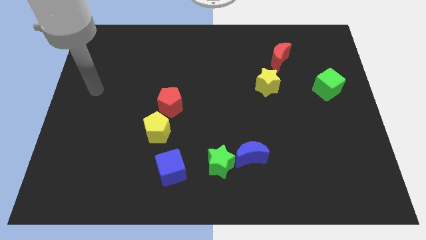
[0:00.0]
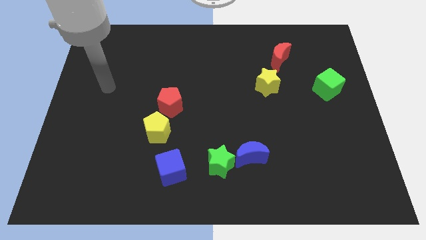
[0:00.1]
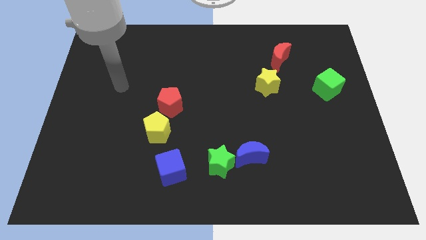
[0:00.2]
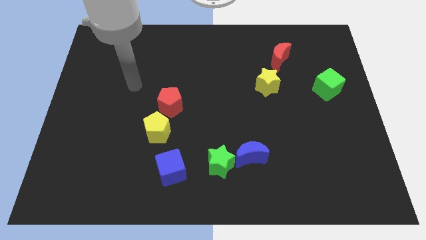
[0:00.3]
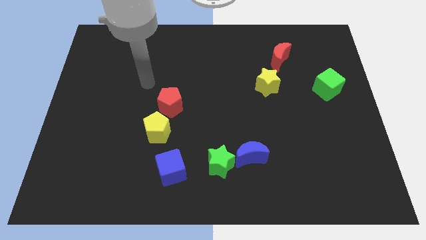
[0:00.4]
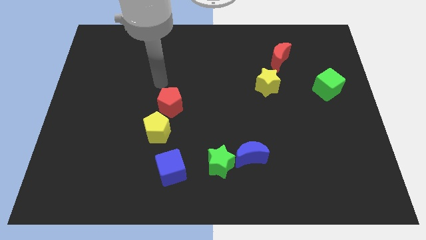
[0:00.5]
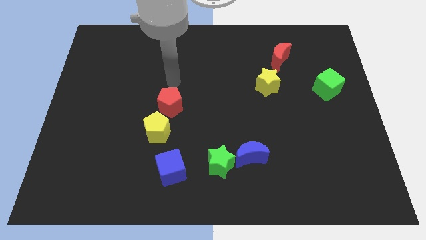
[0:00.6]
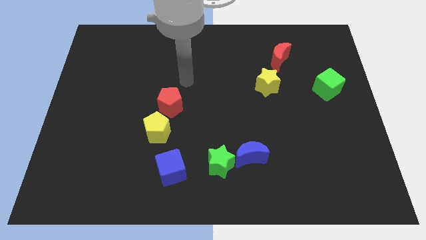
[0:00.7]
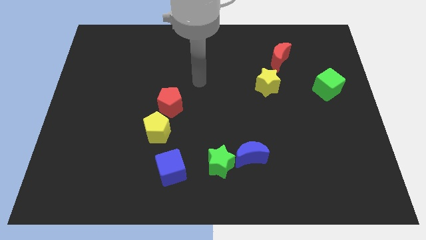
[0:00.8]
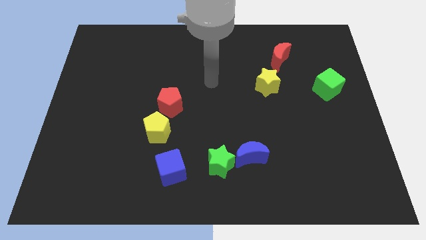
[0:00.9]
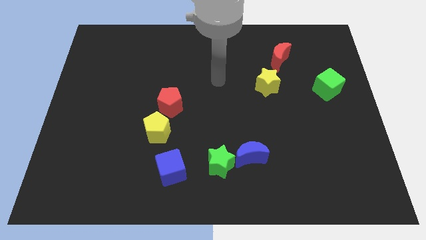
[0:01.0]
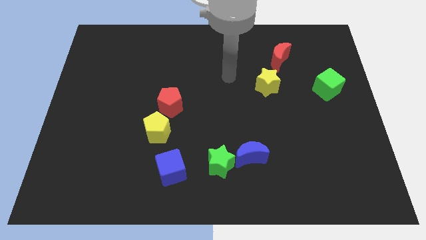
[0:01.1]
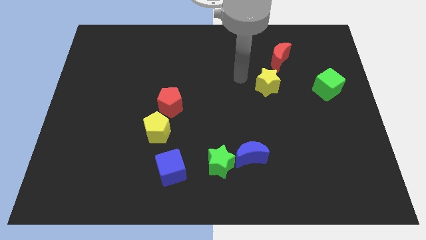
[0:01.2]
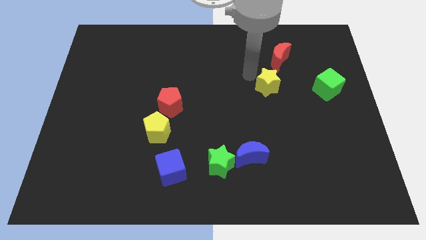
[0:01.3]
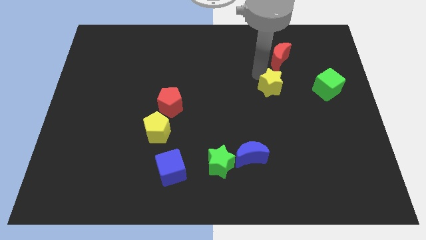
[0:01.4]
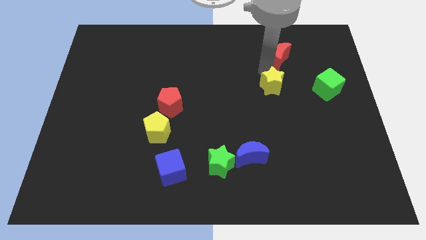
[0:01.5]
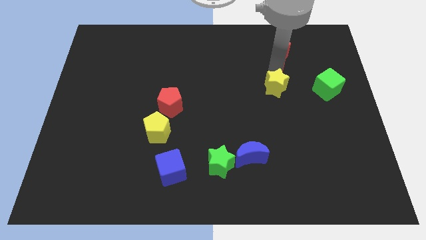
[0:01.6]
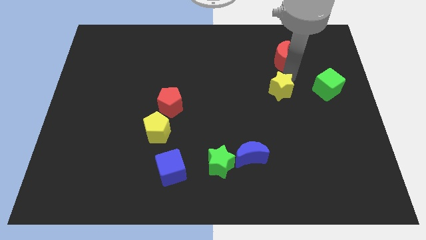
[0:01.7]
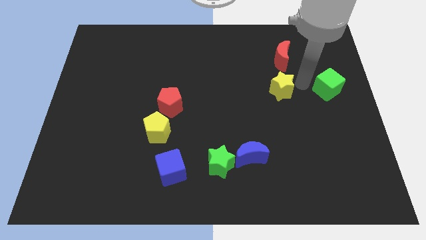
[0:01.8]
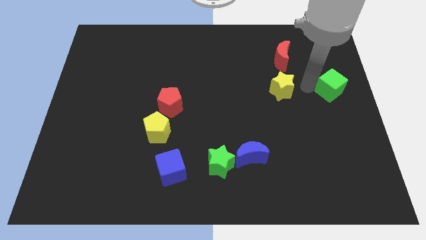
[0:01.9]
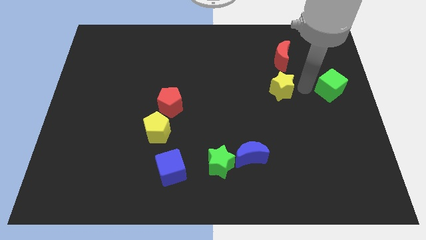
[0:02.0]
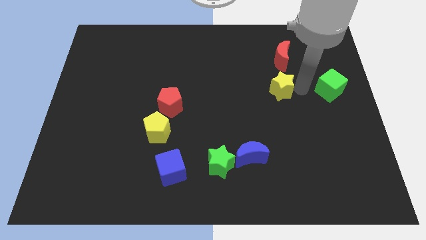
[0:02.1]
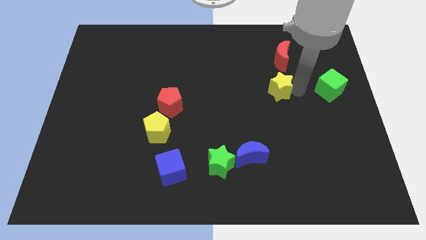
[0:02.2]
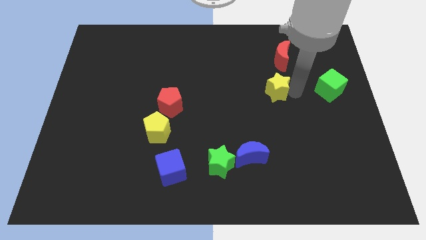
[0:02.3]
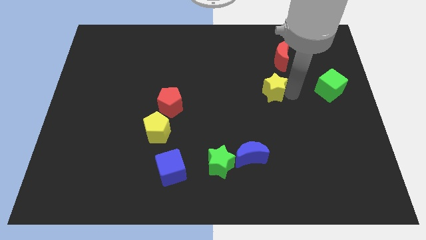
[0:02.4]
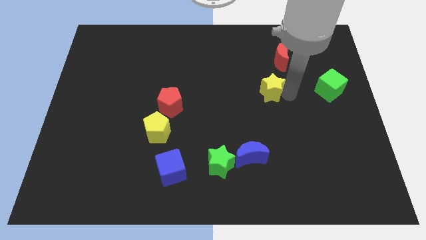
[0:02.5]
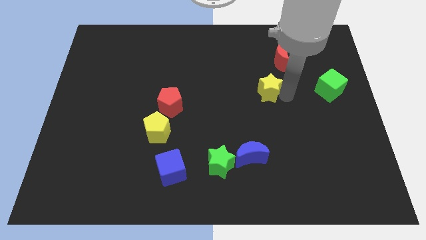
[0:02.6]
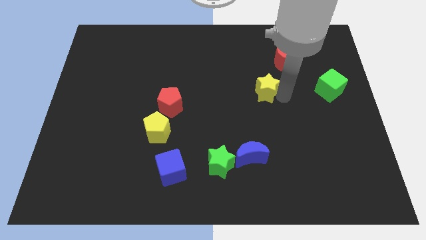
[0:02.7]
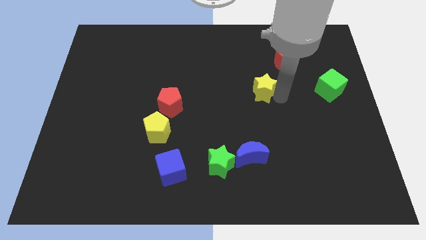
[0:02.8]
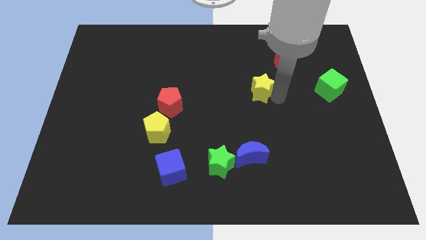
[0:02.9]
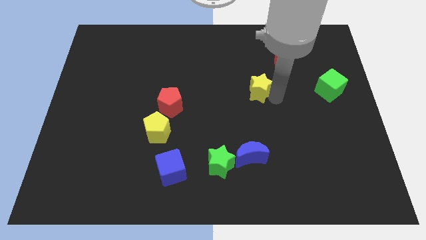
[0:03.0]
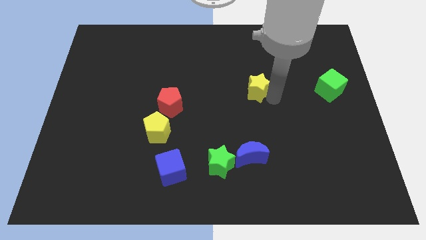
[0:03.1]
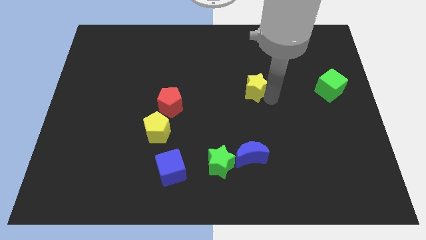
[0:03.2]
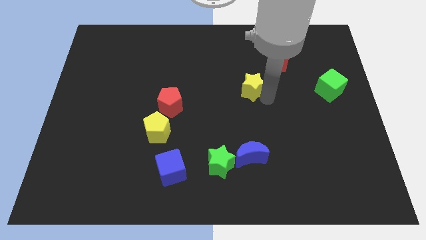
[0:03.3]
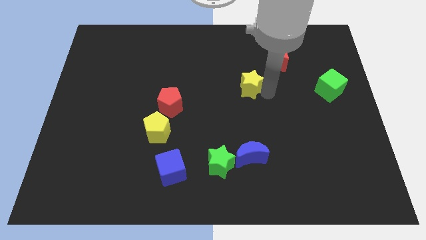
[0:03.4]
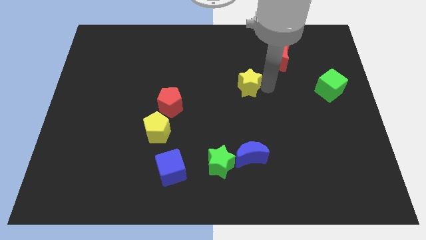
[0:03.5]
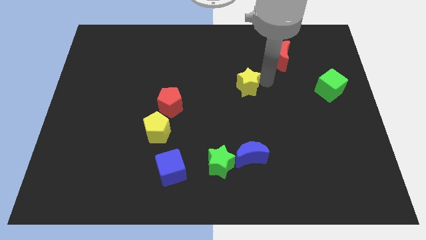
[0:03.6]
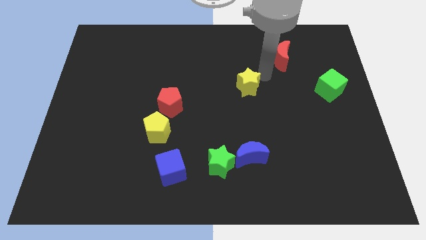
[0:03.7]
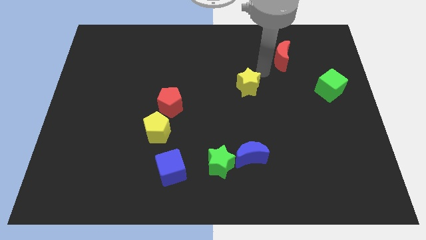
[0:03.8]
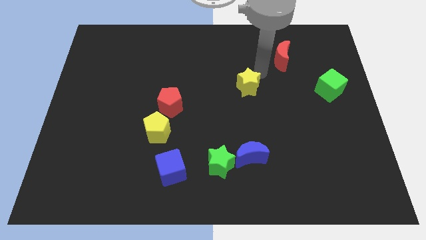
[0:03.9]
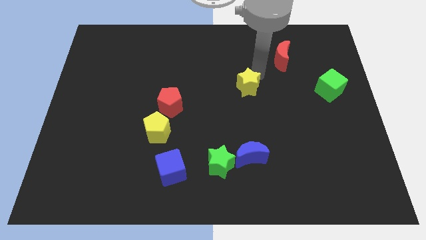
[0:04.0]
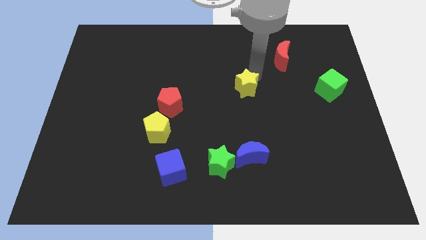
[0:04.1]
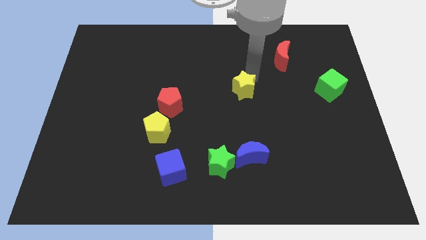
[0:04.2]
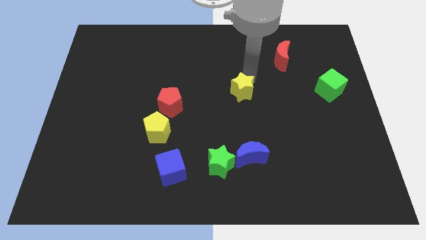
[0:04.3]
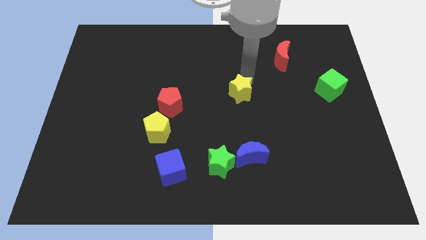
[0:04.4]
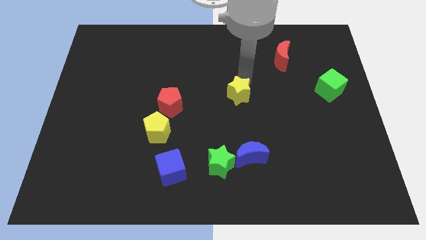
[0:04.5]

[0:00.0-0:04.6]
move the yellow star a bit downwards and left

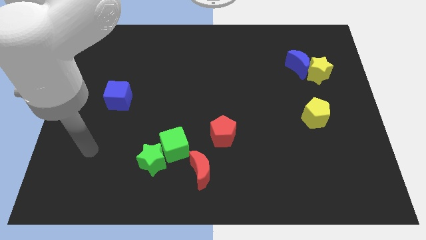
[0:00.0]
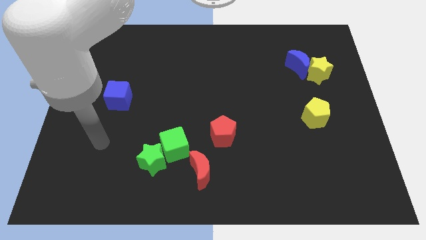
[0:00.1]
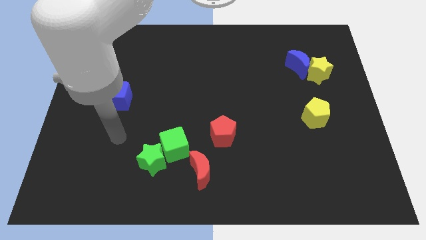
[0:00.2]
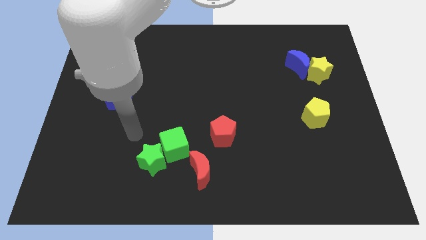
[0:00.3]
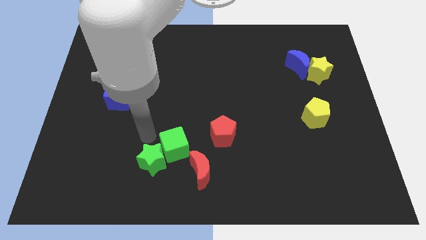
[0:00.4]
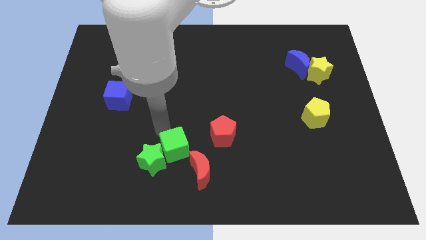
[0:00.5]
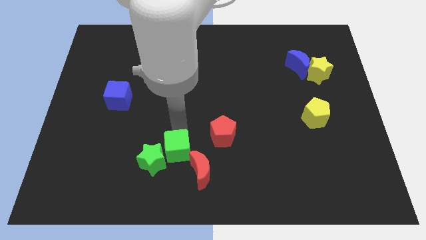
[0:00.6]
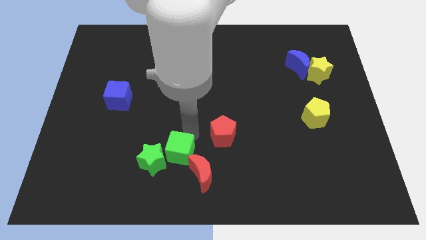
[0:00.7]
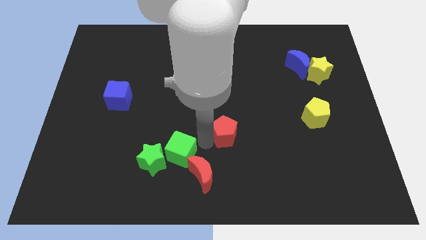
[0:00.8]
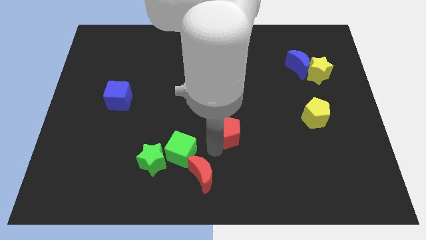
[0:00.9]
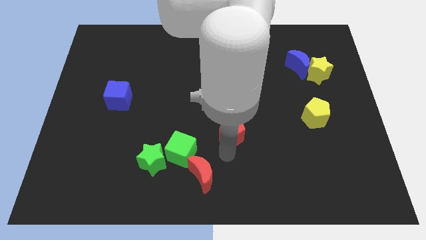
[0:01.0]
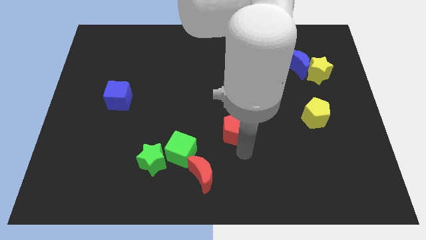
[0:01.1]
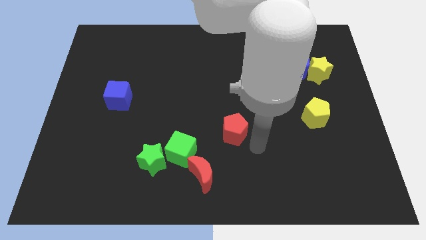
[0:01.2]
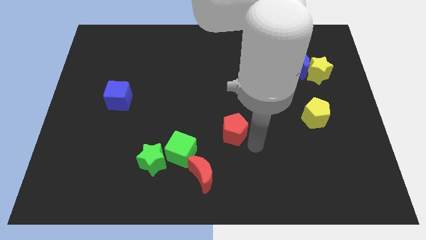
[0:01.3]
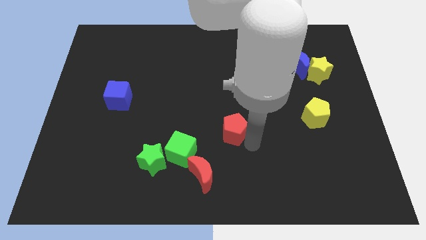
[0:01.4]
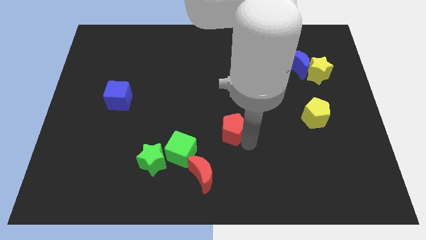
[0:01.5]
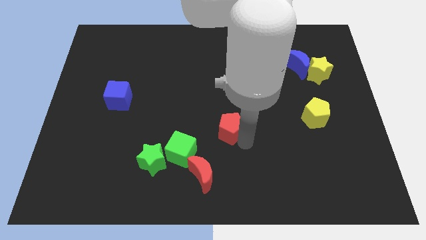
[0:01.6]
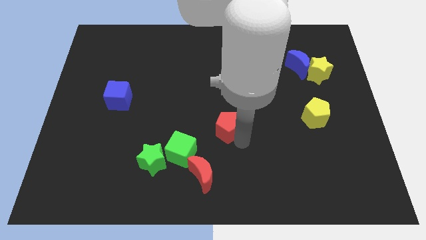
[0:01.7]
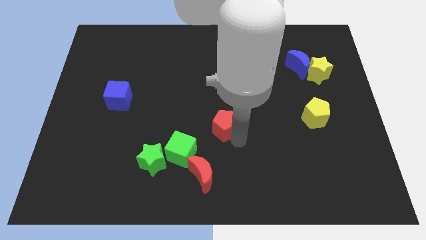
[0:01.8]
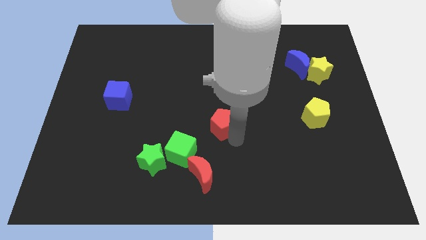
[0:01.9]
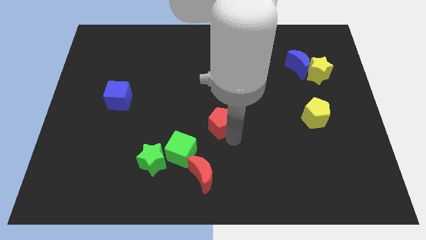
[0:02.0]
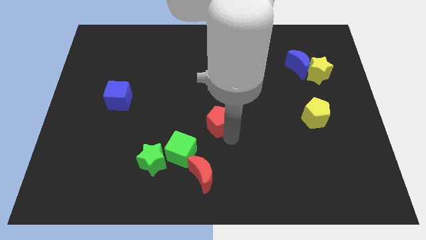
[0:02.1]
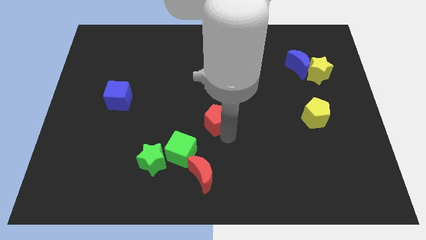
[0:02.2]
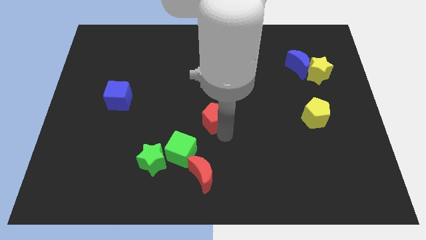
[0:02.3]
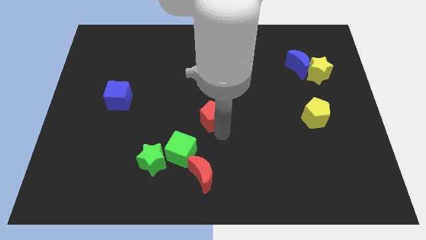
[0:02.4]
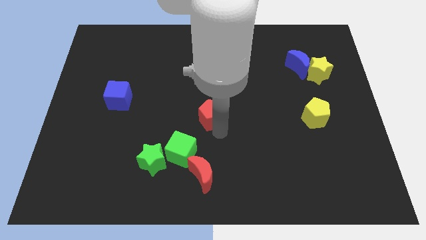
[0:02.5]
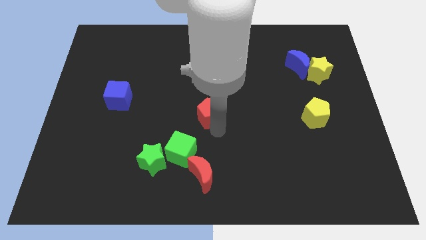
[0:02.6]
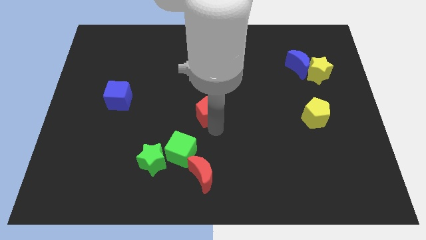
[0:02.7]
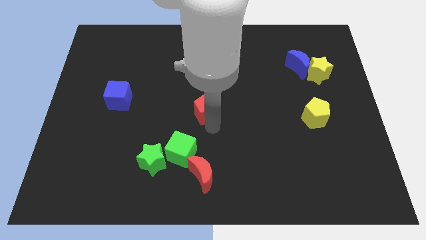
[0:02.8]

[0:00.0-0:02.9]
move the red pentagon up and then to the left a little

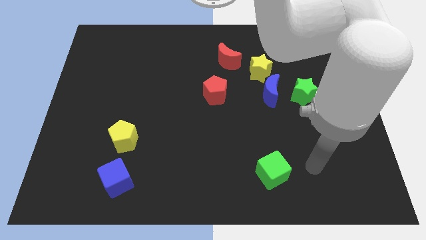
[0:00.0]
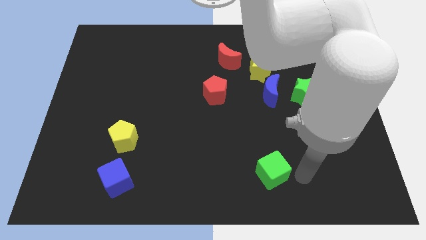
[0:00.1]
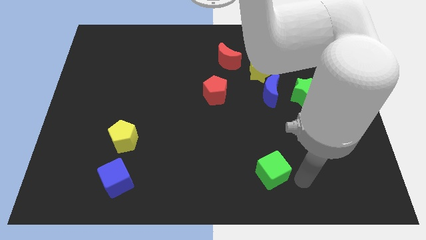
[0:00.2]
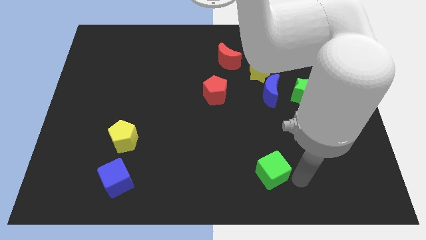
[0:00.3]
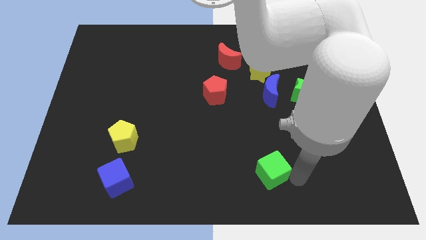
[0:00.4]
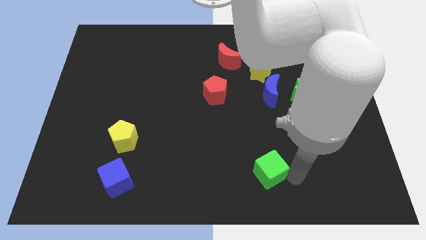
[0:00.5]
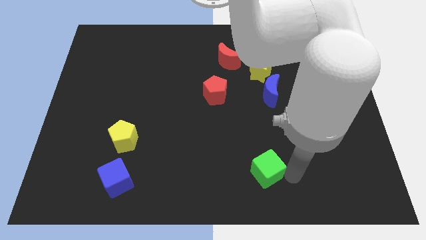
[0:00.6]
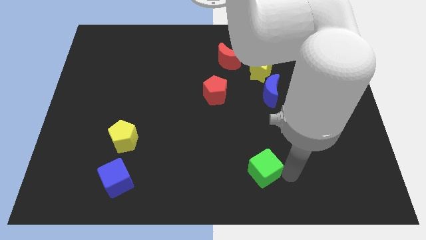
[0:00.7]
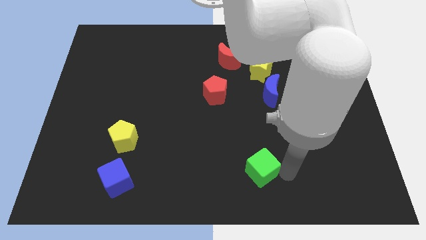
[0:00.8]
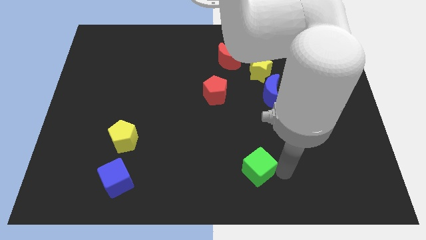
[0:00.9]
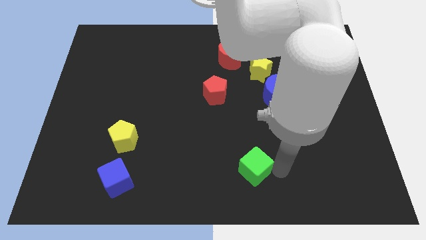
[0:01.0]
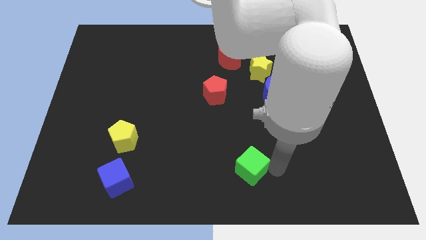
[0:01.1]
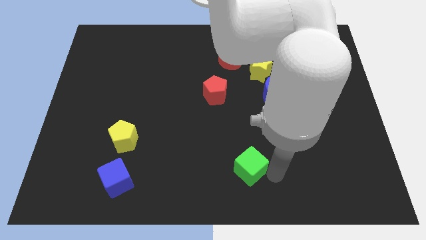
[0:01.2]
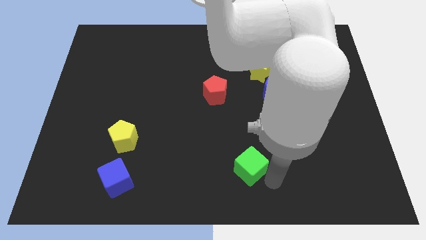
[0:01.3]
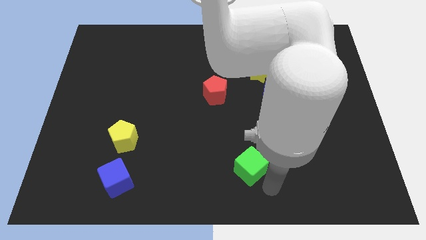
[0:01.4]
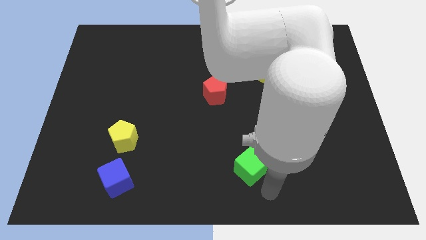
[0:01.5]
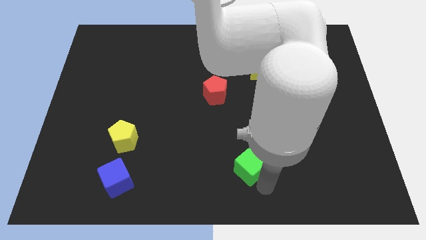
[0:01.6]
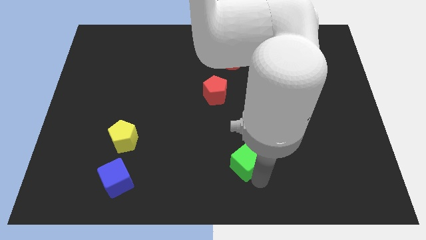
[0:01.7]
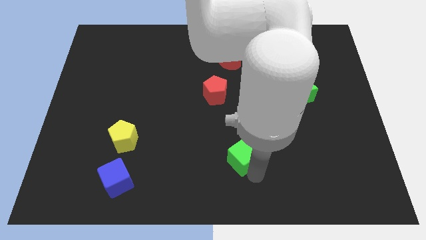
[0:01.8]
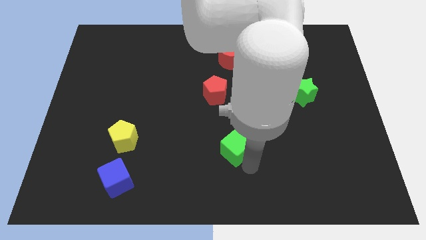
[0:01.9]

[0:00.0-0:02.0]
push the green cube somewhat up and to the left
